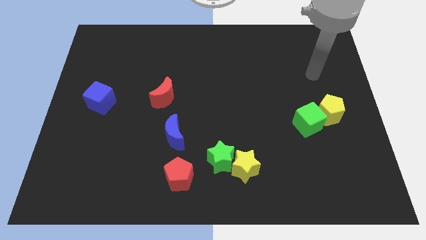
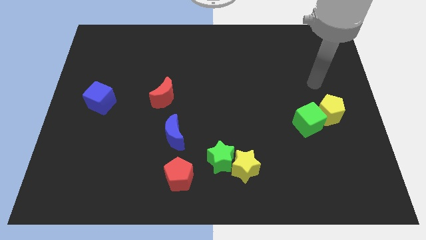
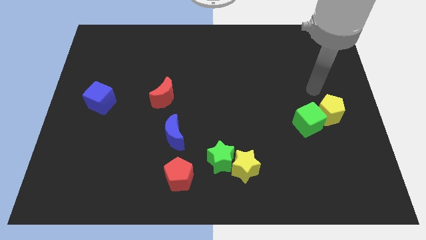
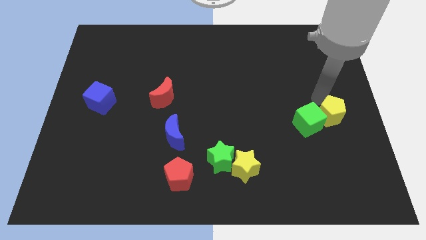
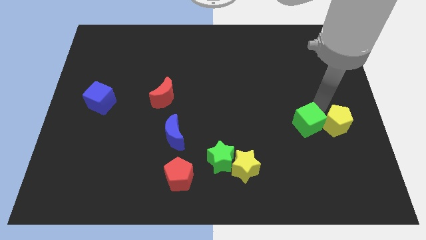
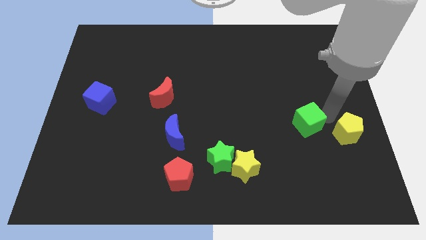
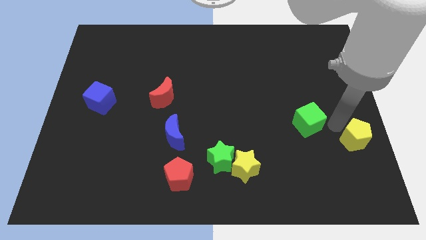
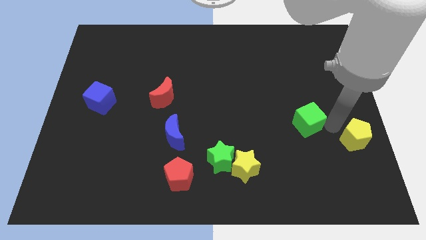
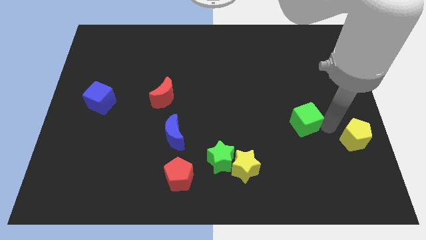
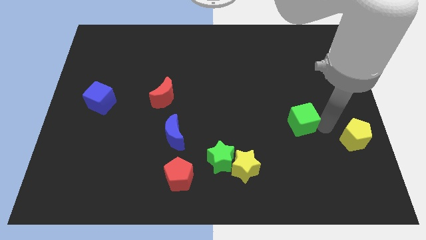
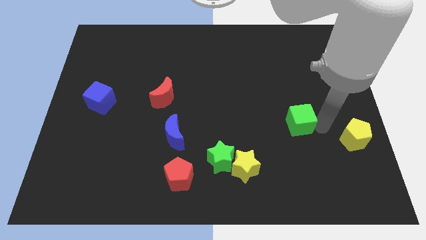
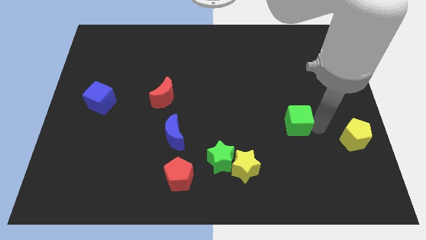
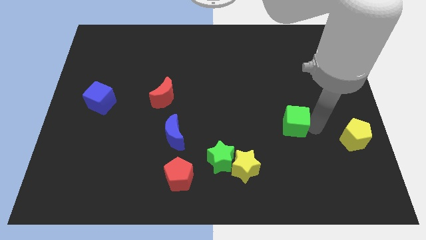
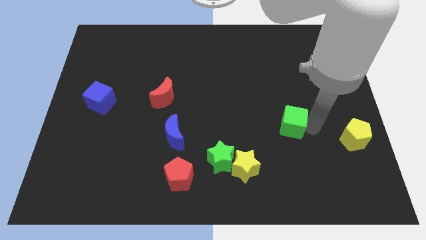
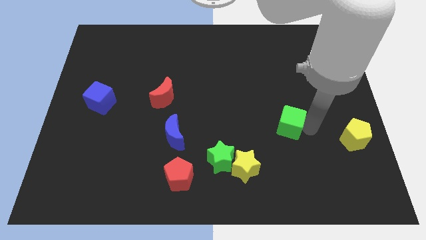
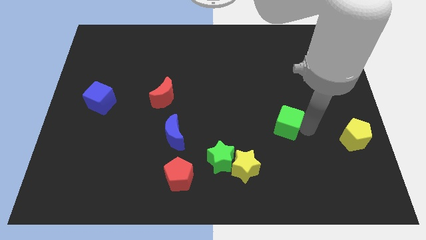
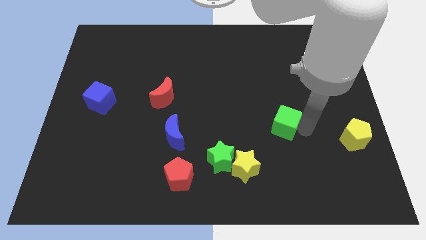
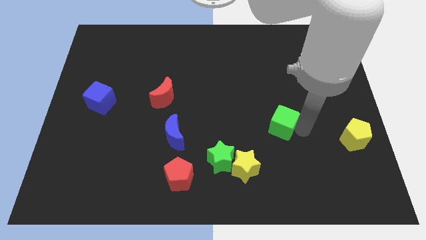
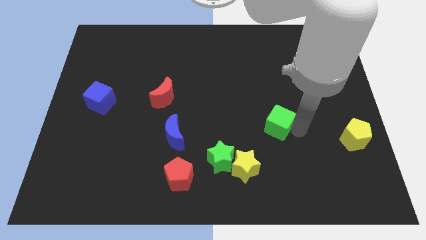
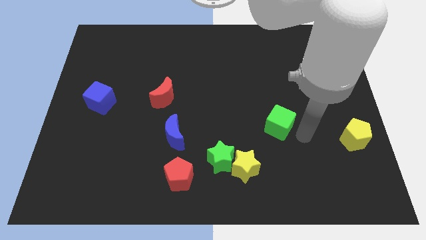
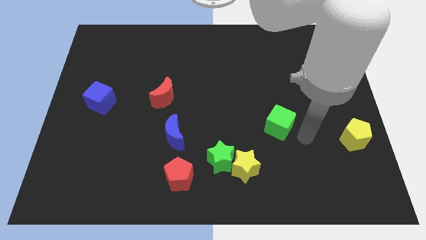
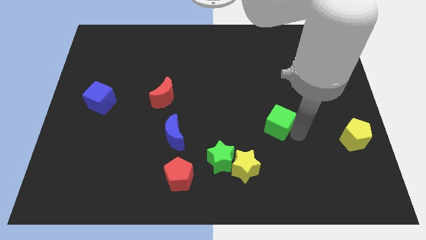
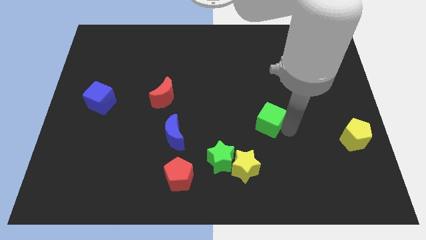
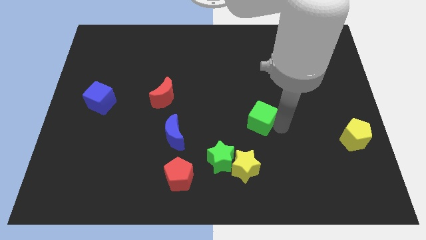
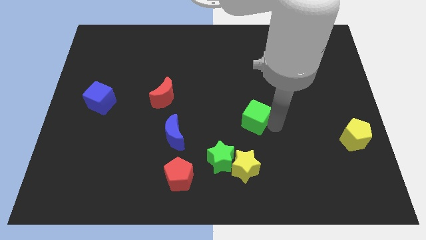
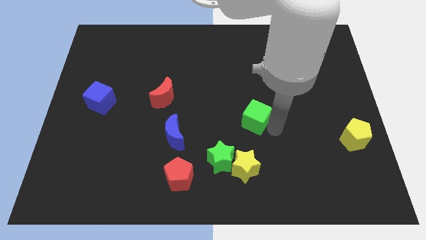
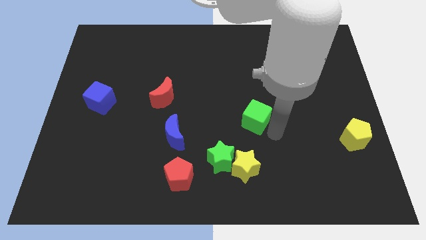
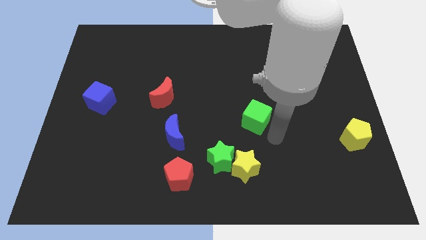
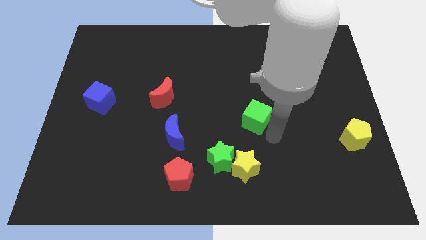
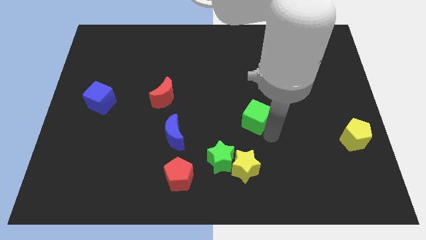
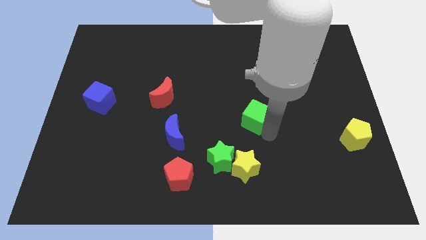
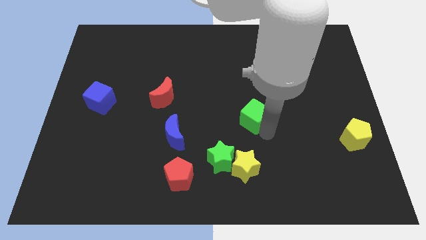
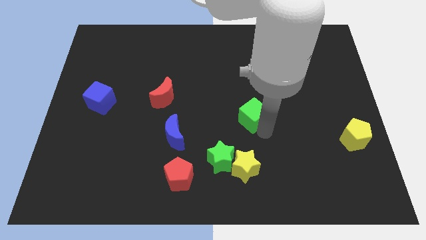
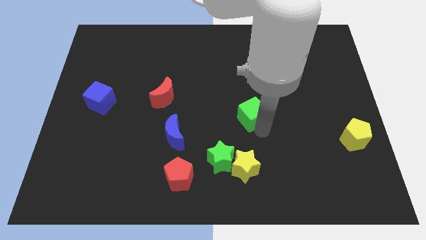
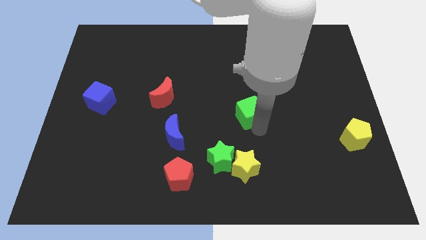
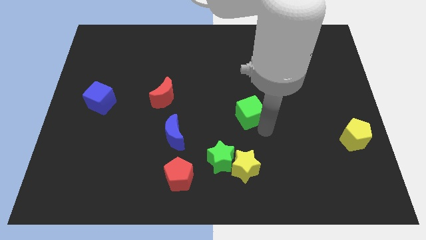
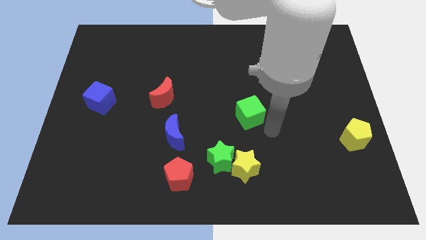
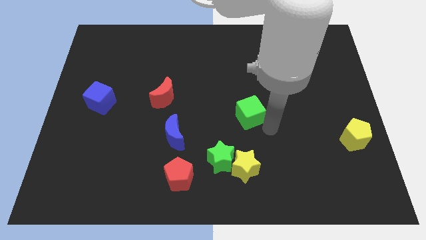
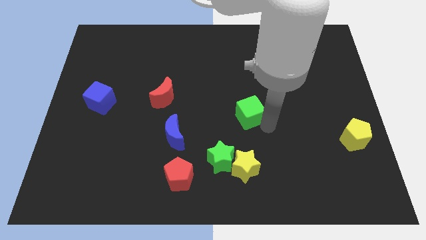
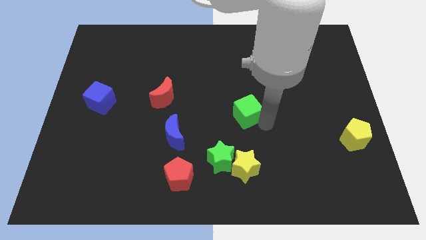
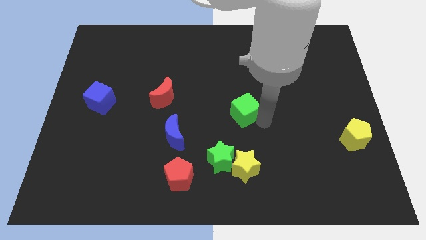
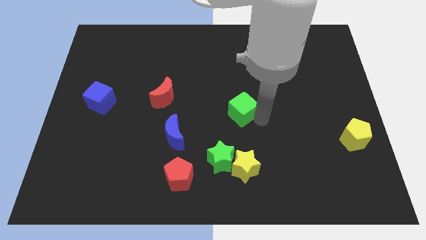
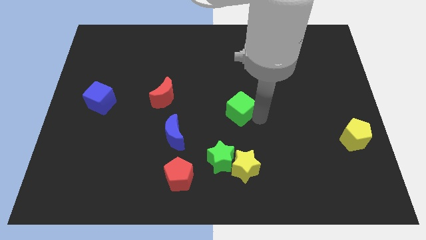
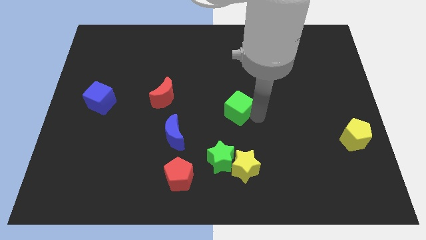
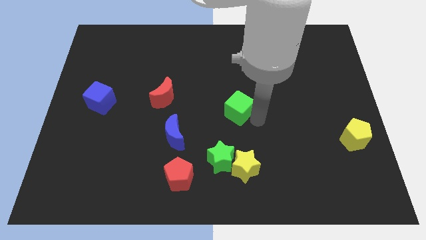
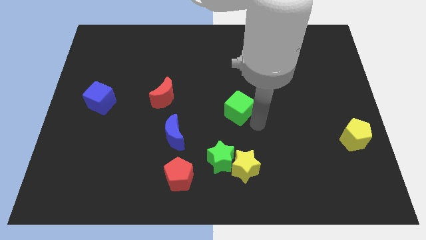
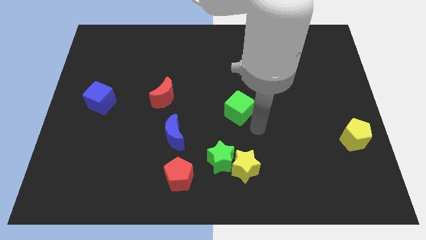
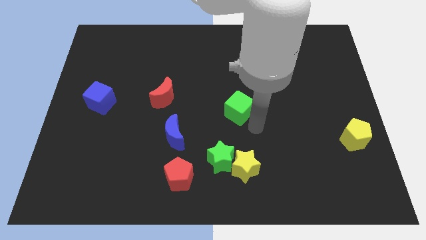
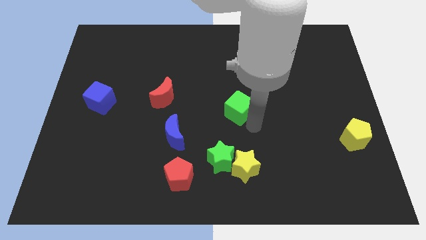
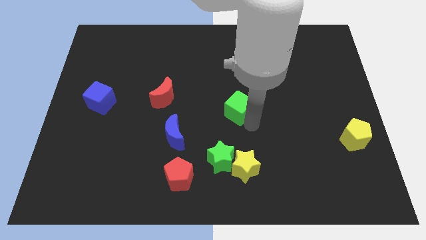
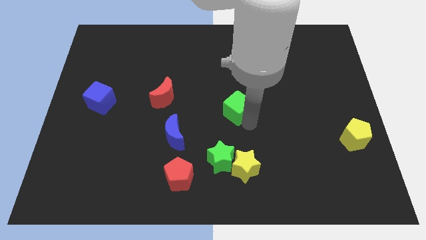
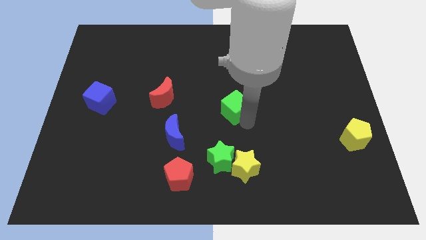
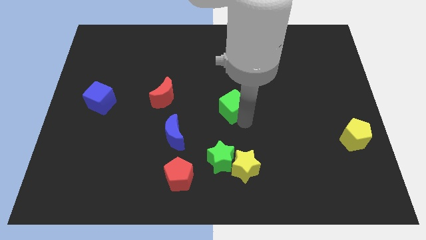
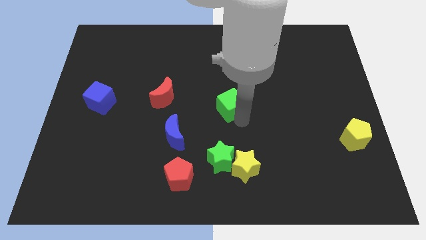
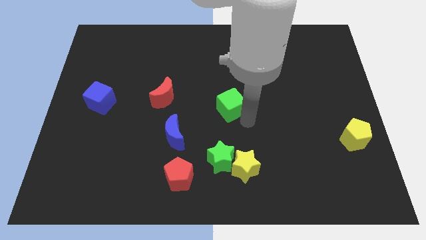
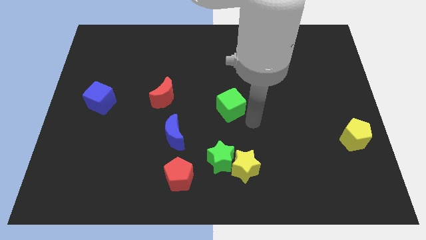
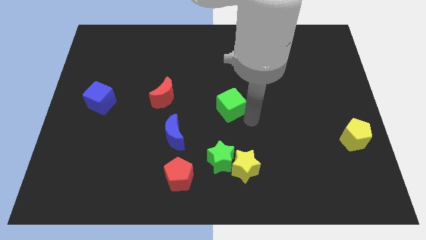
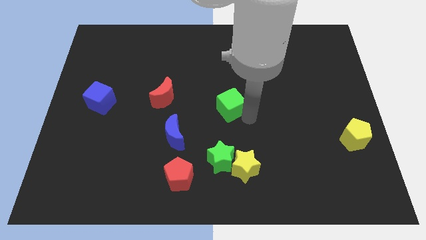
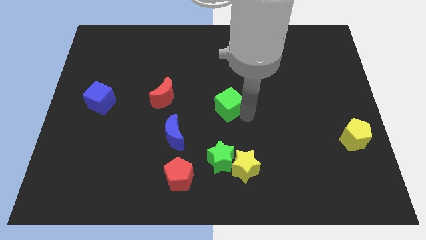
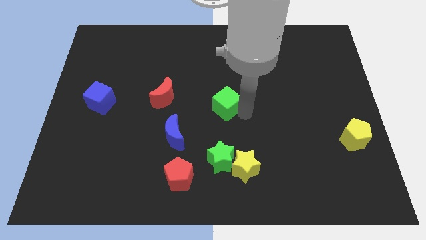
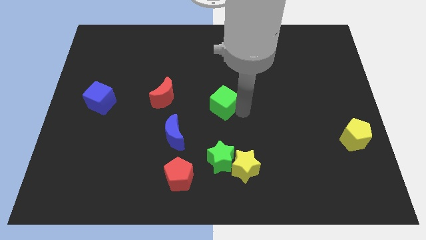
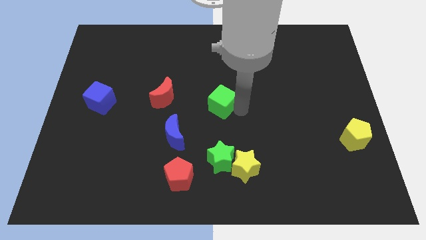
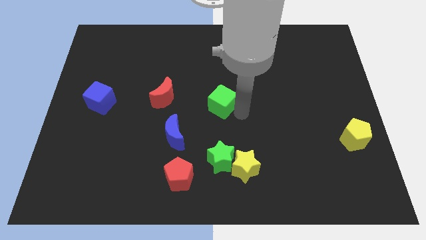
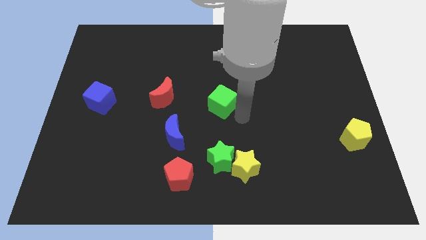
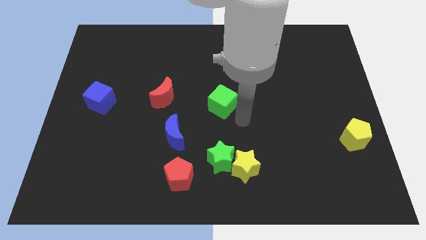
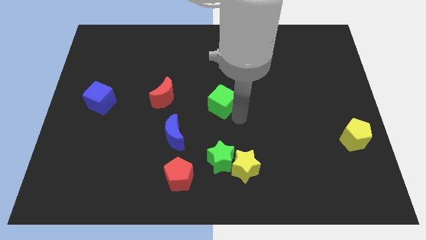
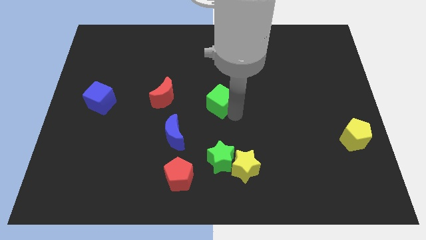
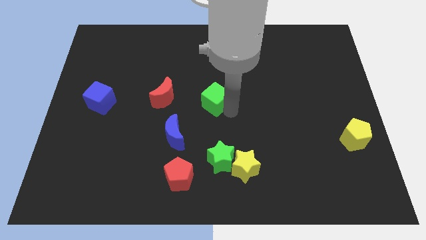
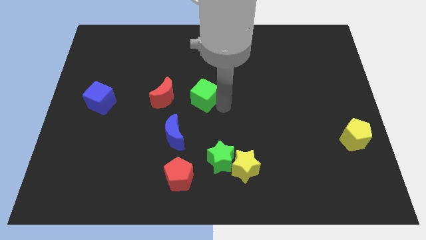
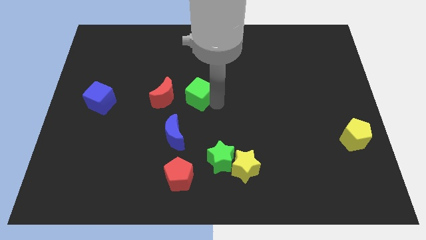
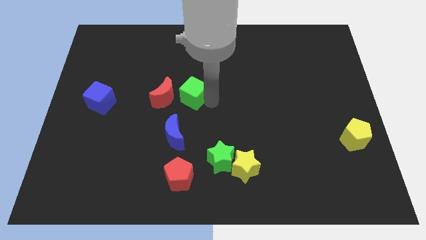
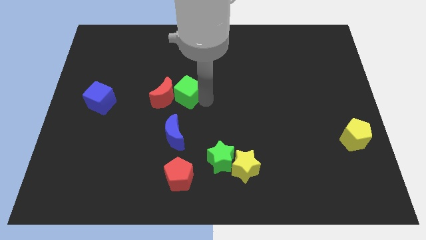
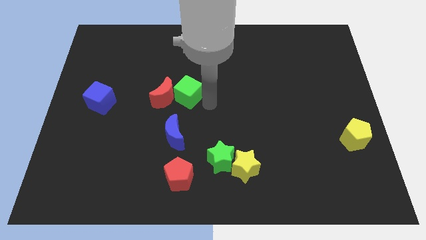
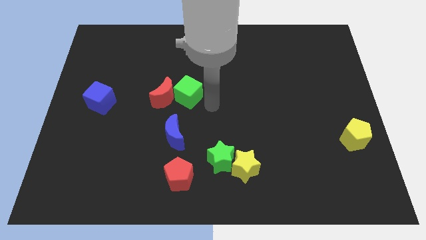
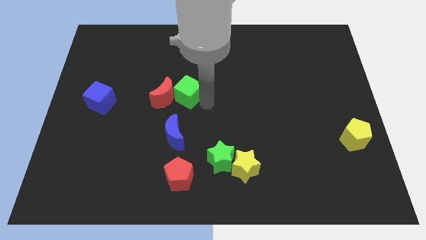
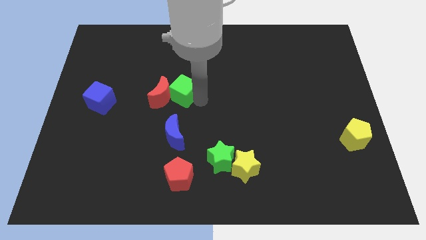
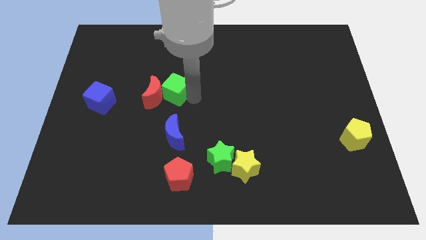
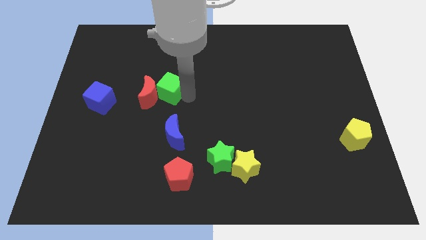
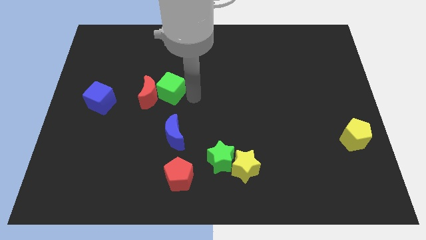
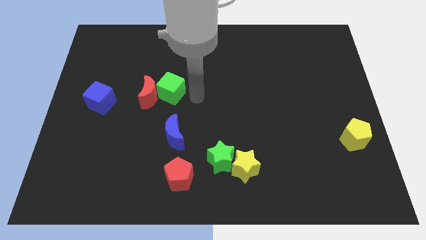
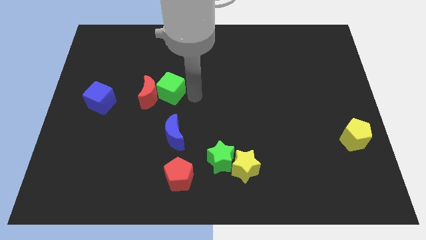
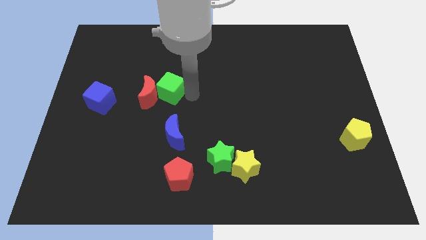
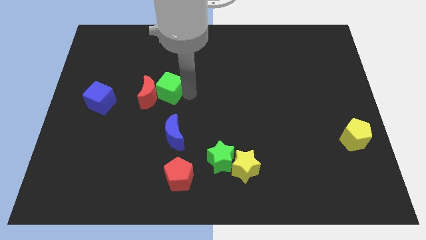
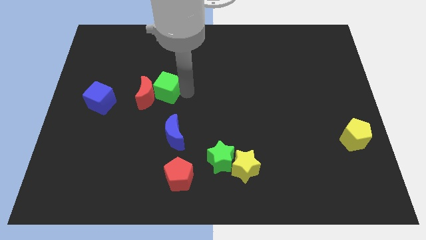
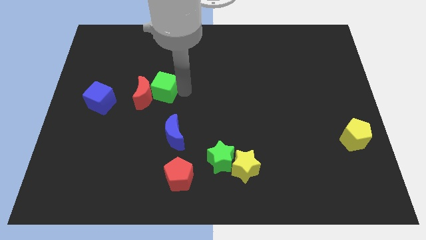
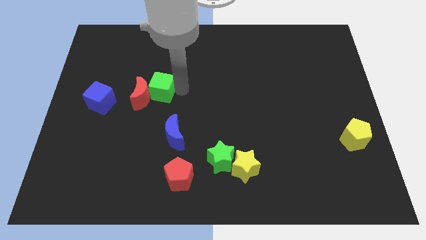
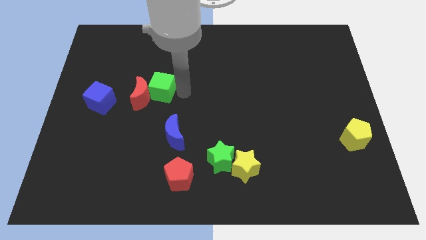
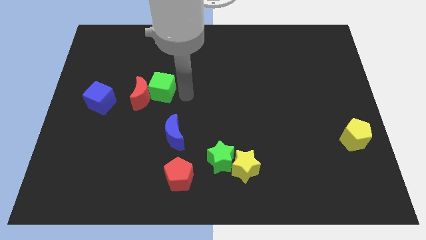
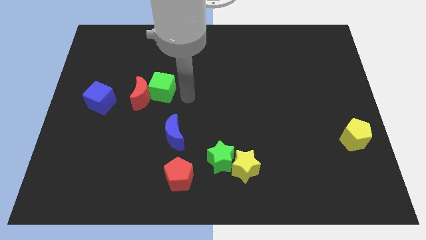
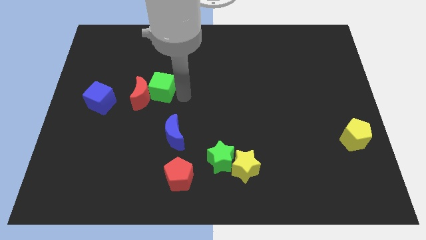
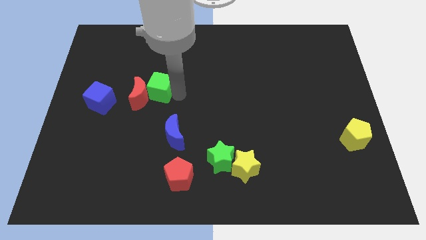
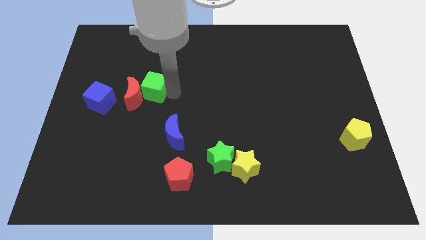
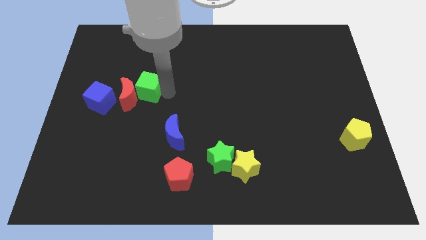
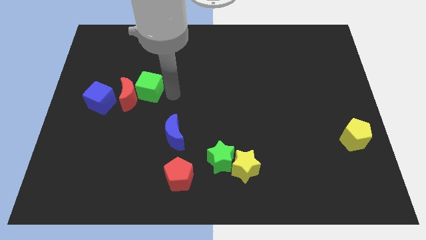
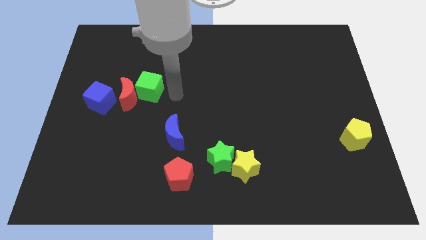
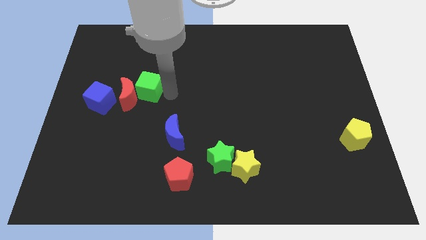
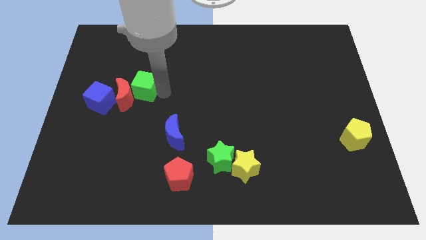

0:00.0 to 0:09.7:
slide the green cube to the top right of the blue cube
